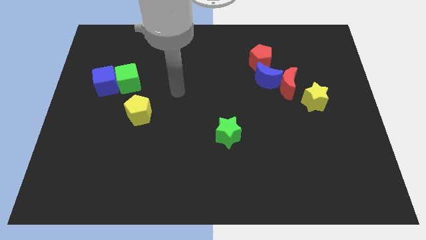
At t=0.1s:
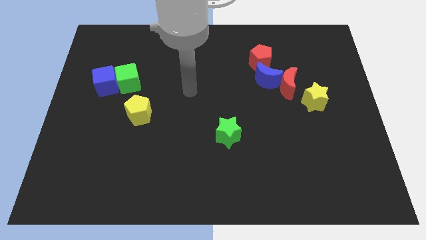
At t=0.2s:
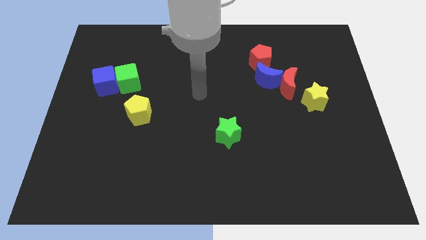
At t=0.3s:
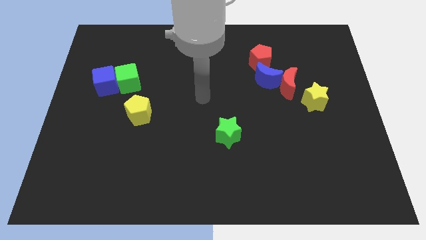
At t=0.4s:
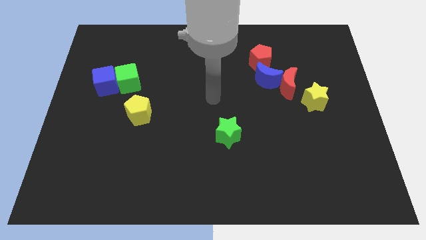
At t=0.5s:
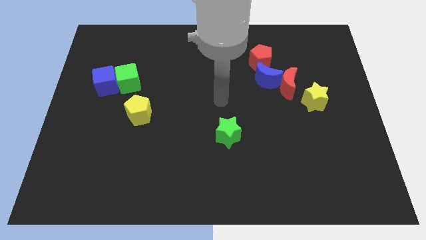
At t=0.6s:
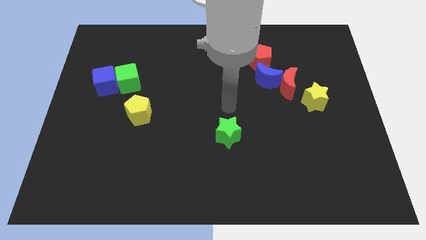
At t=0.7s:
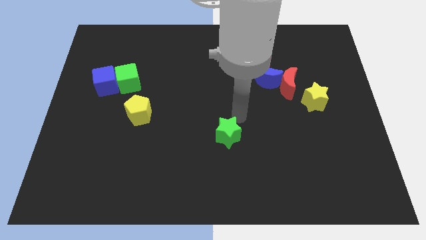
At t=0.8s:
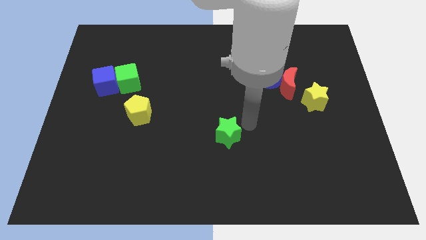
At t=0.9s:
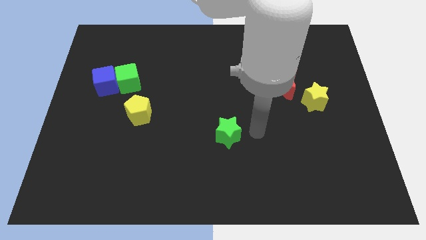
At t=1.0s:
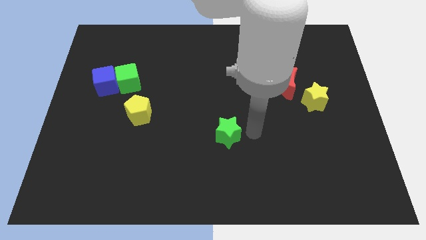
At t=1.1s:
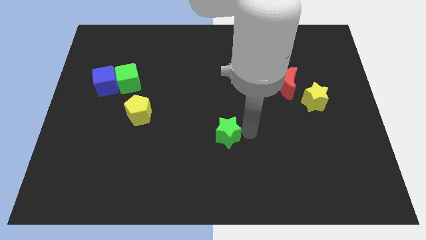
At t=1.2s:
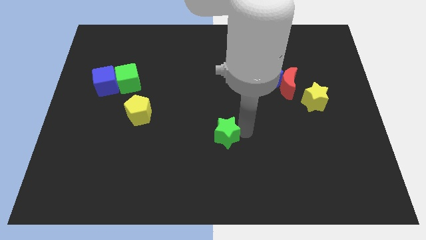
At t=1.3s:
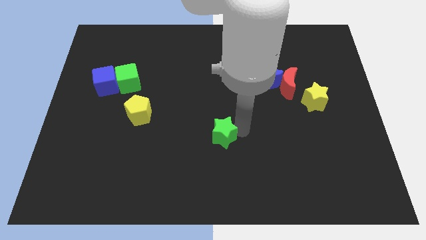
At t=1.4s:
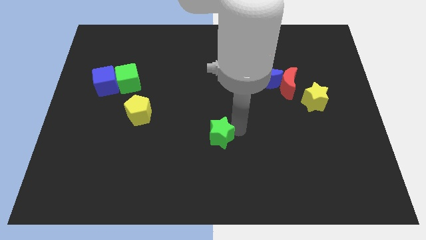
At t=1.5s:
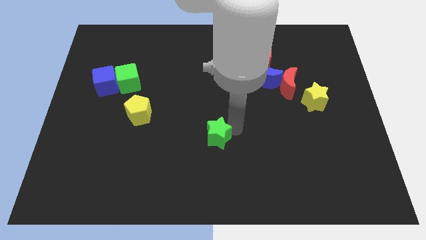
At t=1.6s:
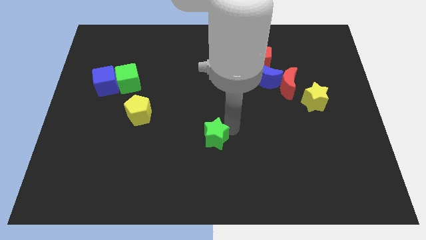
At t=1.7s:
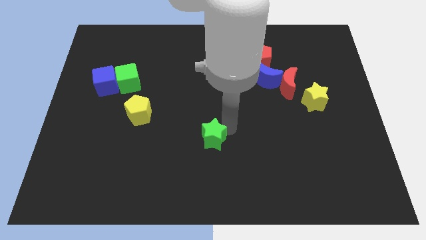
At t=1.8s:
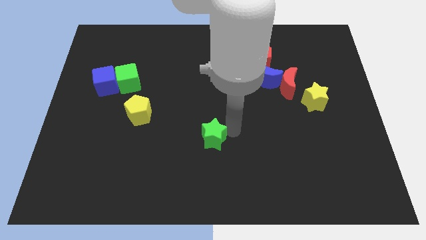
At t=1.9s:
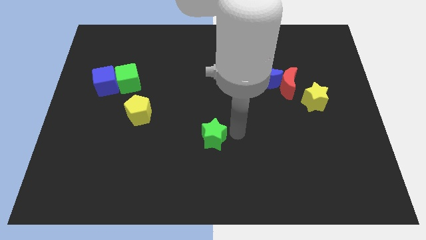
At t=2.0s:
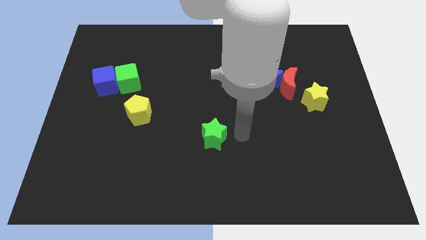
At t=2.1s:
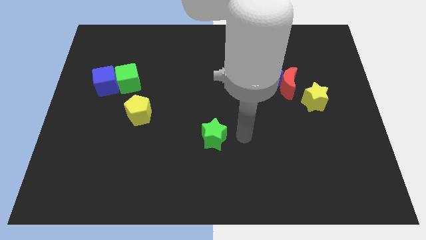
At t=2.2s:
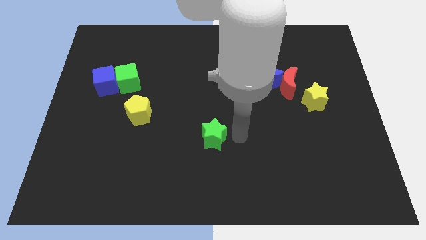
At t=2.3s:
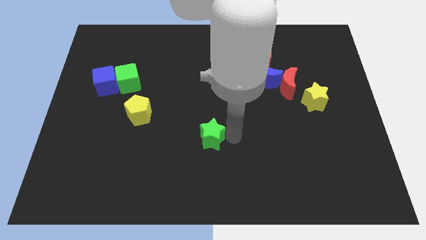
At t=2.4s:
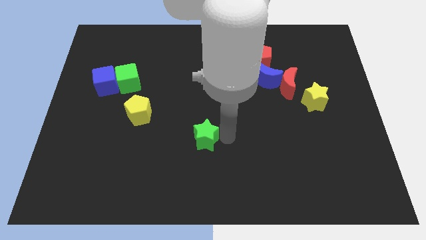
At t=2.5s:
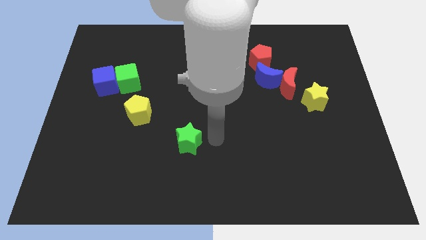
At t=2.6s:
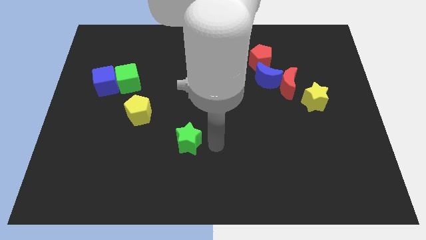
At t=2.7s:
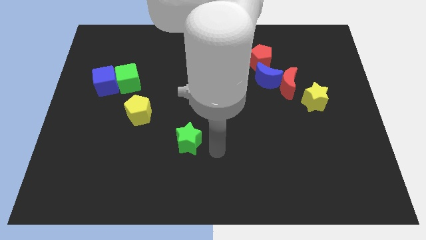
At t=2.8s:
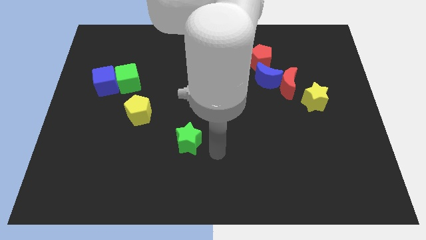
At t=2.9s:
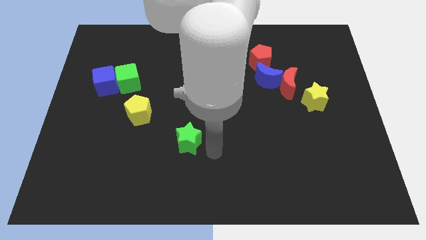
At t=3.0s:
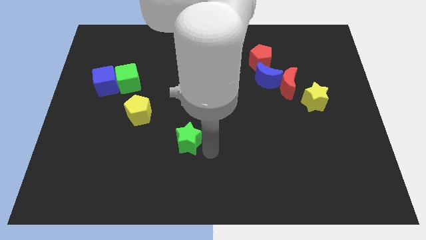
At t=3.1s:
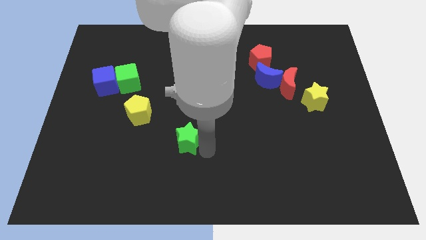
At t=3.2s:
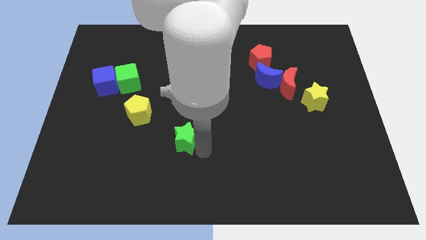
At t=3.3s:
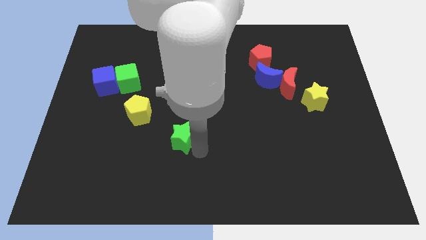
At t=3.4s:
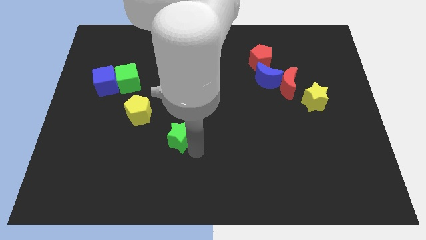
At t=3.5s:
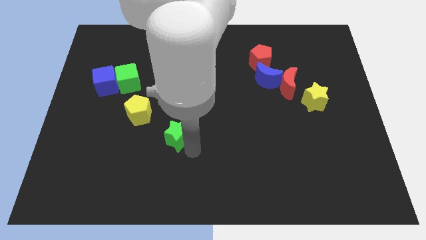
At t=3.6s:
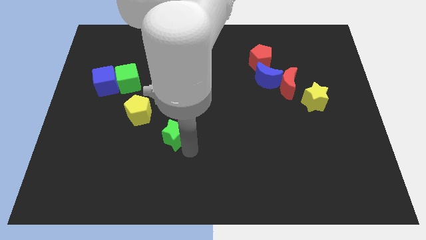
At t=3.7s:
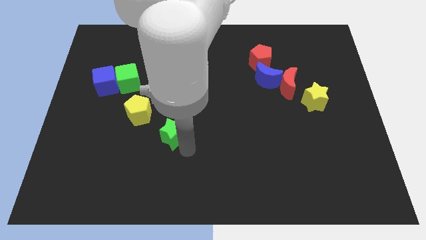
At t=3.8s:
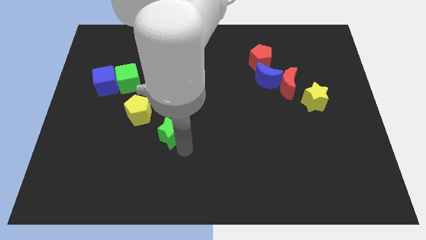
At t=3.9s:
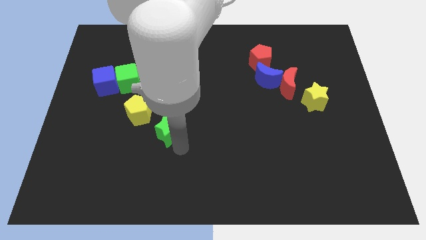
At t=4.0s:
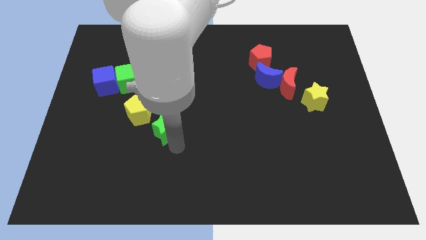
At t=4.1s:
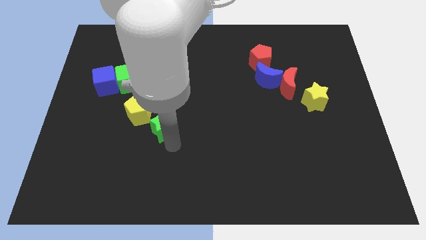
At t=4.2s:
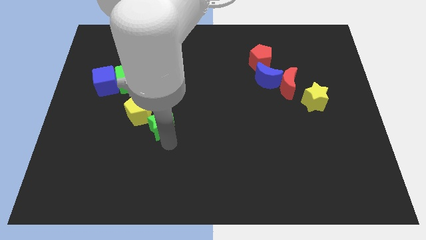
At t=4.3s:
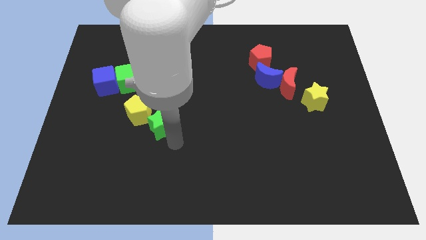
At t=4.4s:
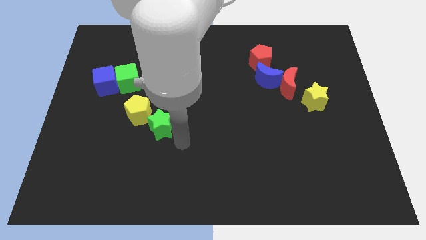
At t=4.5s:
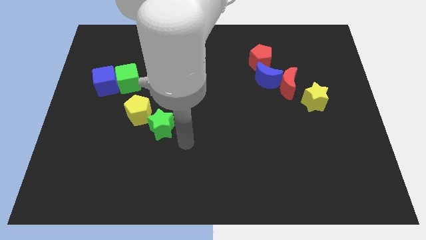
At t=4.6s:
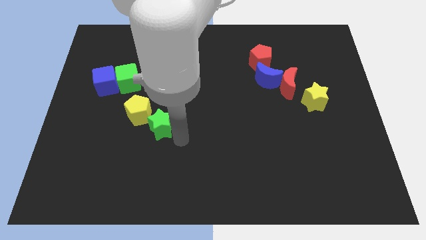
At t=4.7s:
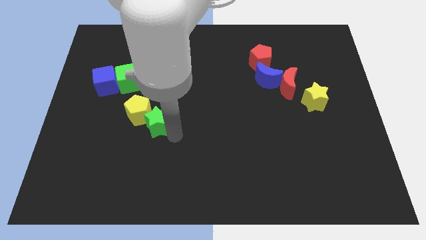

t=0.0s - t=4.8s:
slide the green star close to the yellow pentagon

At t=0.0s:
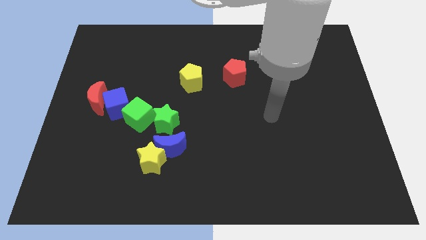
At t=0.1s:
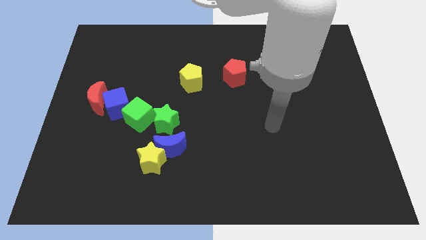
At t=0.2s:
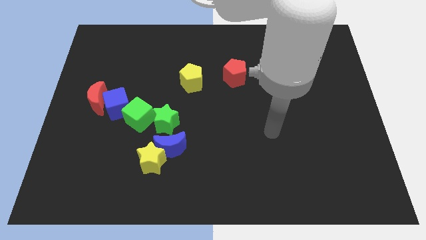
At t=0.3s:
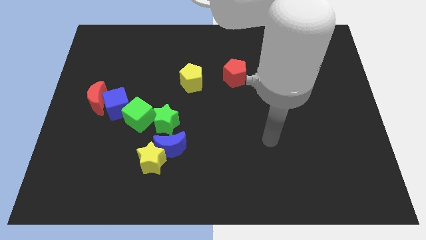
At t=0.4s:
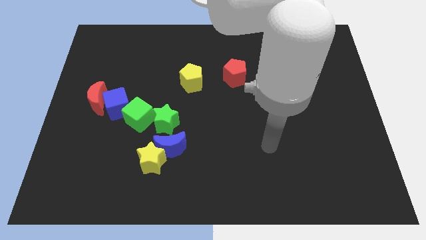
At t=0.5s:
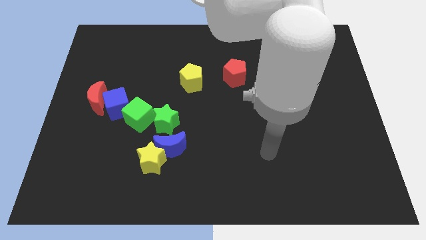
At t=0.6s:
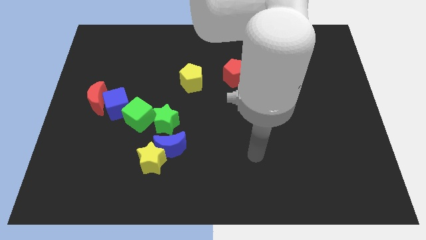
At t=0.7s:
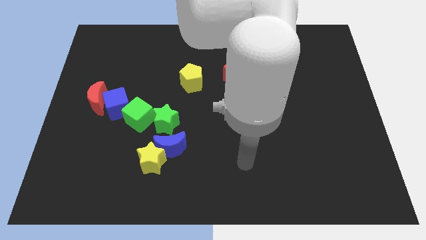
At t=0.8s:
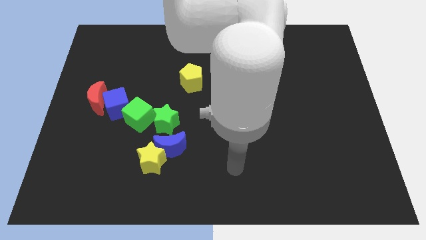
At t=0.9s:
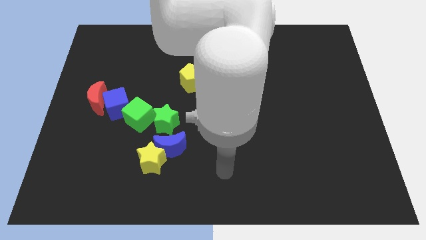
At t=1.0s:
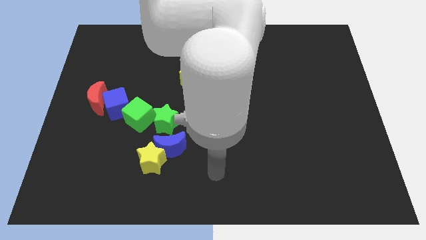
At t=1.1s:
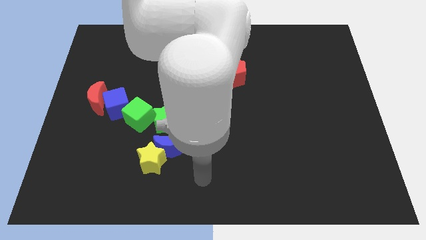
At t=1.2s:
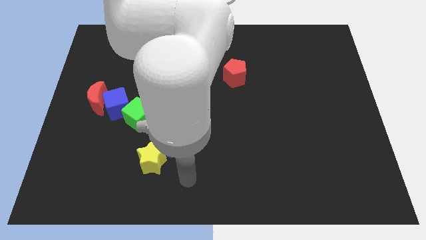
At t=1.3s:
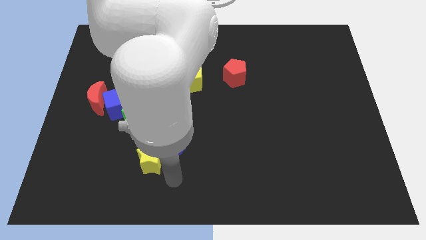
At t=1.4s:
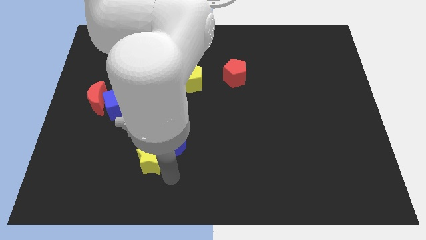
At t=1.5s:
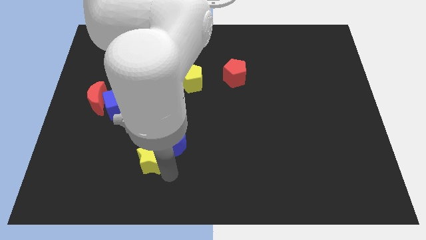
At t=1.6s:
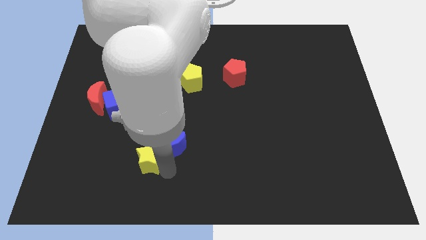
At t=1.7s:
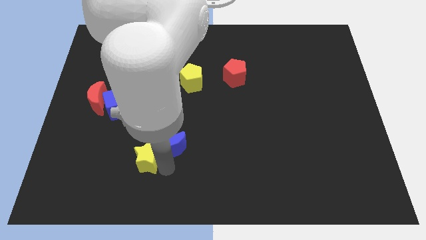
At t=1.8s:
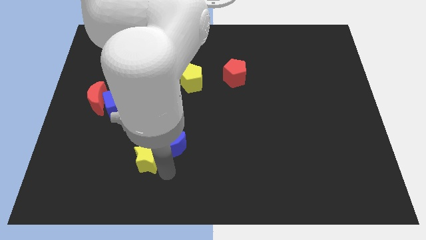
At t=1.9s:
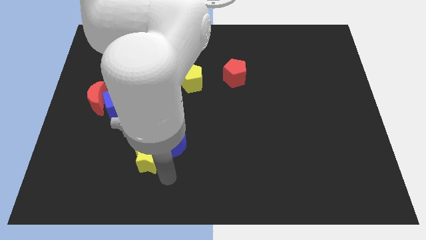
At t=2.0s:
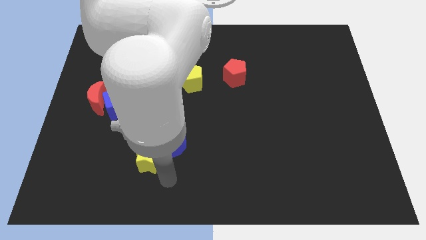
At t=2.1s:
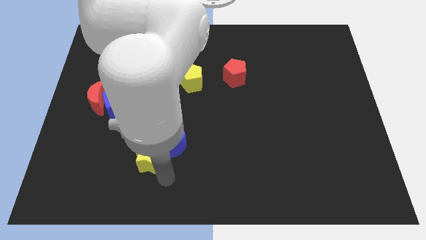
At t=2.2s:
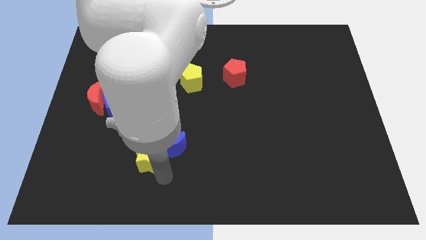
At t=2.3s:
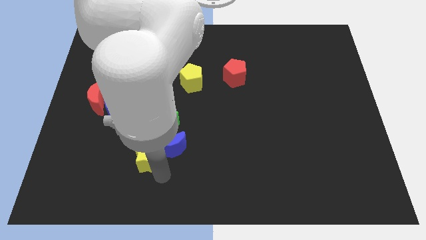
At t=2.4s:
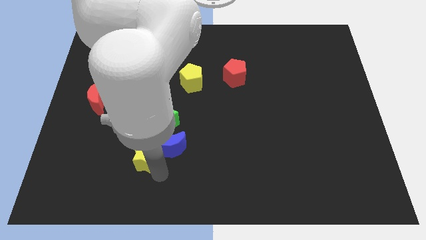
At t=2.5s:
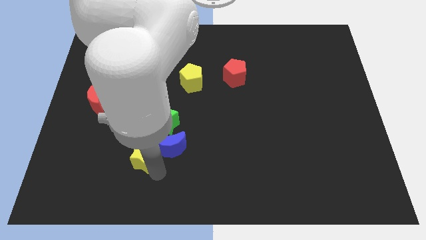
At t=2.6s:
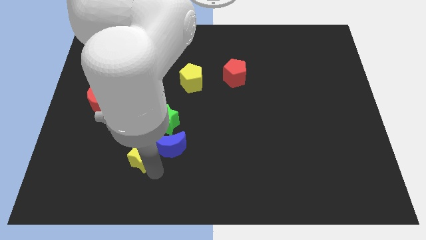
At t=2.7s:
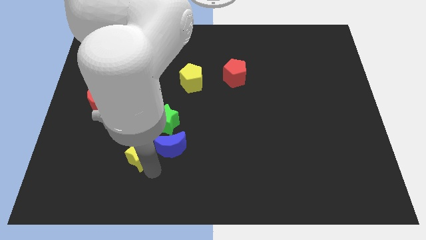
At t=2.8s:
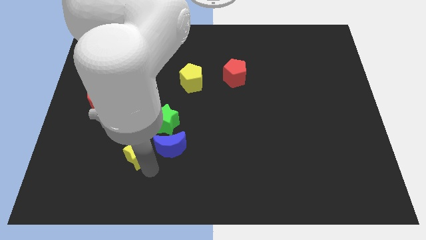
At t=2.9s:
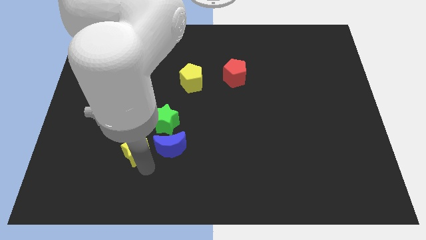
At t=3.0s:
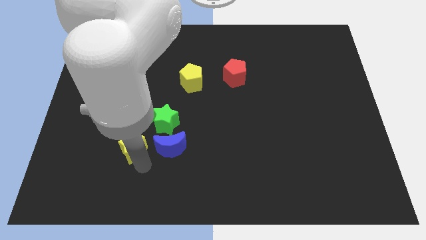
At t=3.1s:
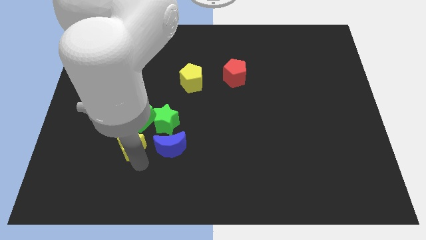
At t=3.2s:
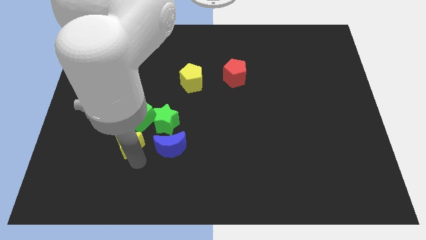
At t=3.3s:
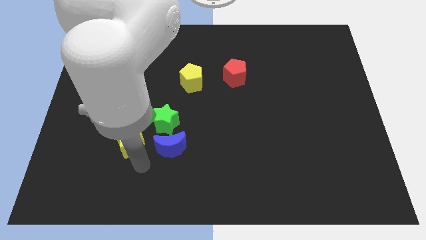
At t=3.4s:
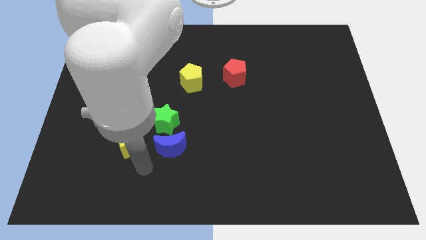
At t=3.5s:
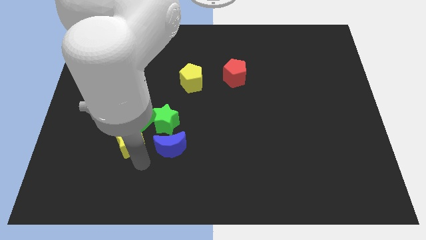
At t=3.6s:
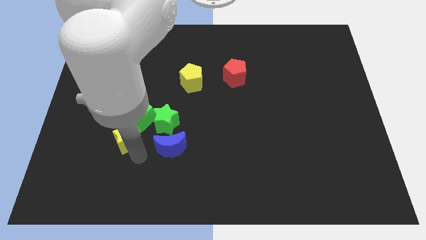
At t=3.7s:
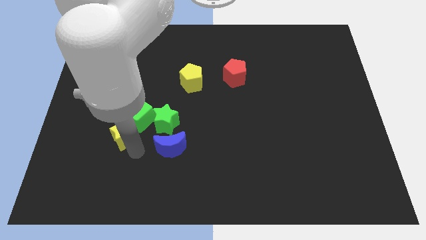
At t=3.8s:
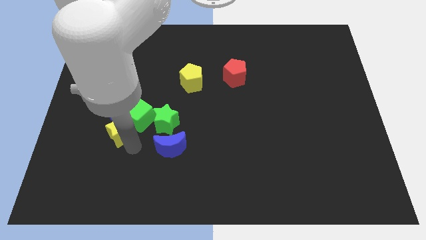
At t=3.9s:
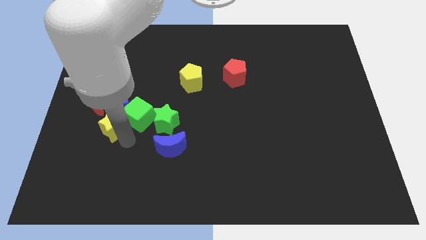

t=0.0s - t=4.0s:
put the yellow star towards the blue cube
